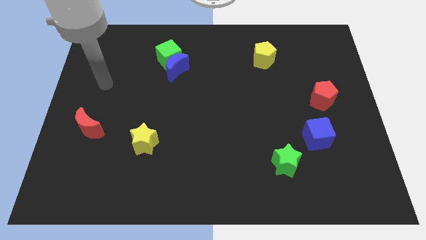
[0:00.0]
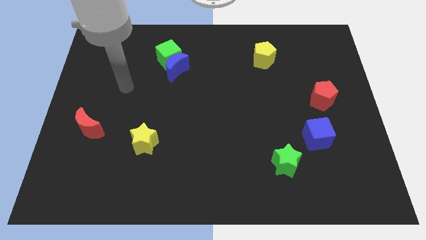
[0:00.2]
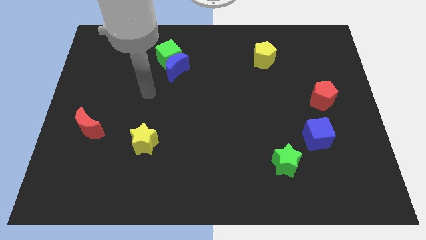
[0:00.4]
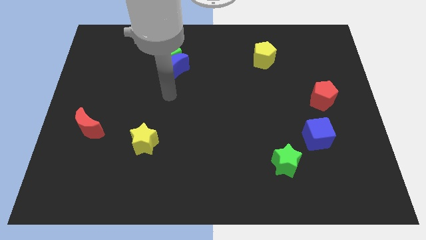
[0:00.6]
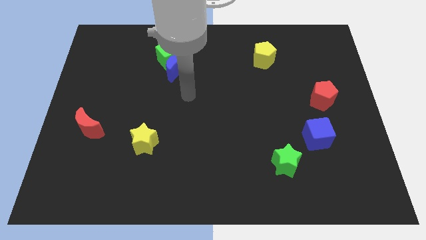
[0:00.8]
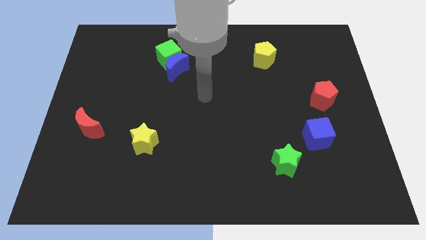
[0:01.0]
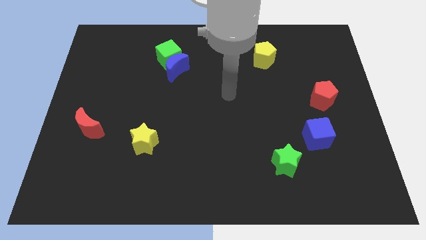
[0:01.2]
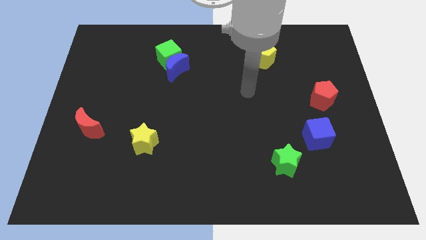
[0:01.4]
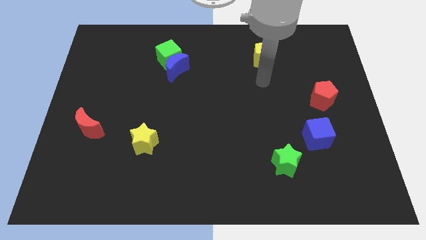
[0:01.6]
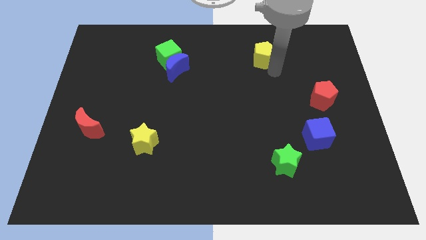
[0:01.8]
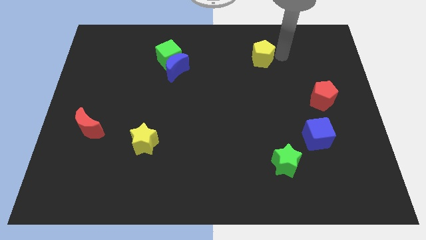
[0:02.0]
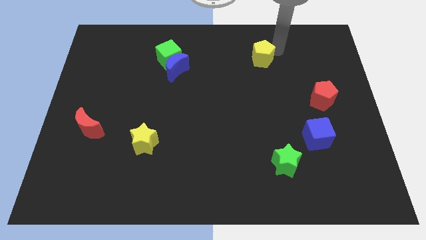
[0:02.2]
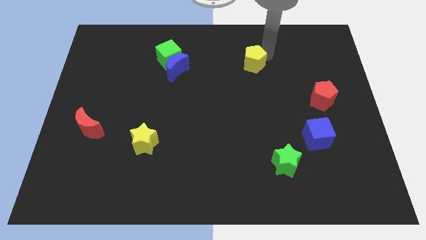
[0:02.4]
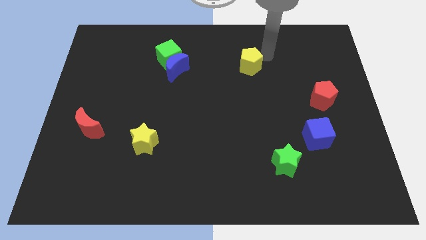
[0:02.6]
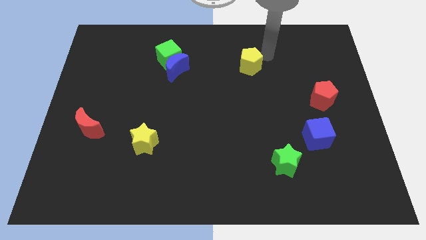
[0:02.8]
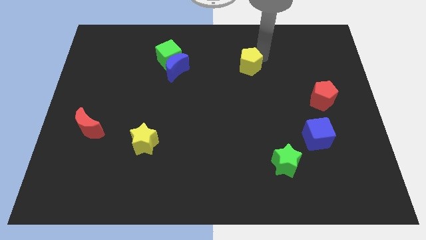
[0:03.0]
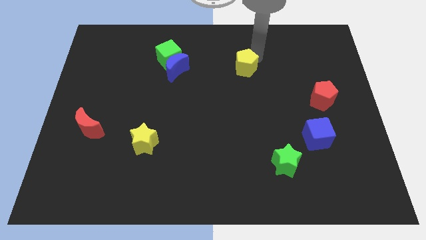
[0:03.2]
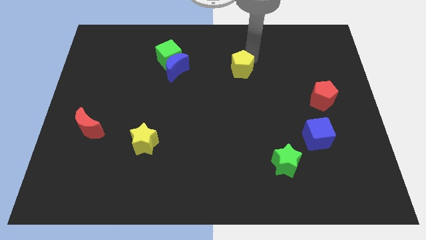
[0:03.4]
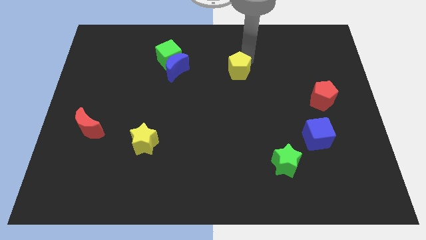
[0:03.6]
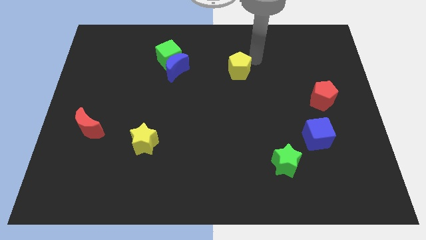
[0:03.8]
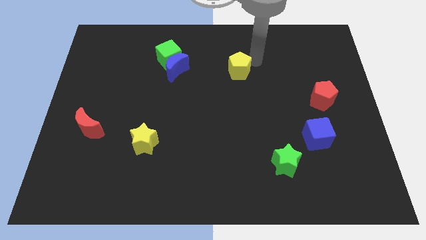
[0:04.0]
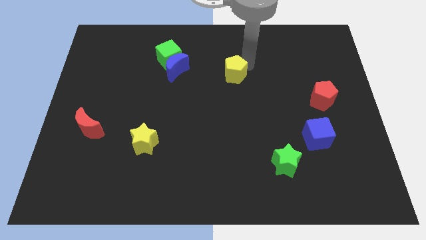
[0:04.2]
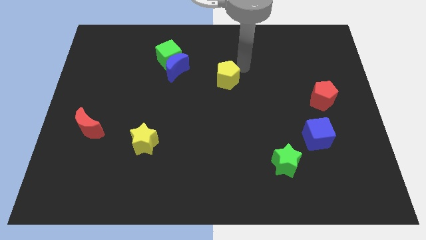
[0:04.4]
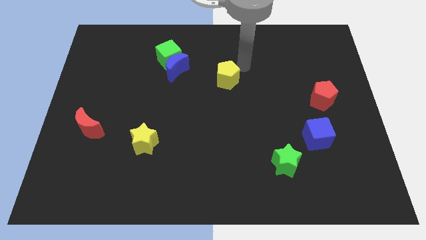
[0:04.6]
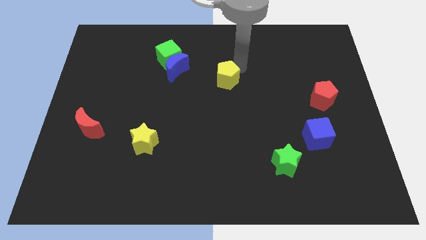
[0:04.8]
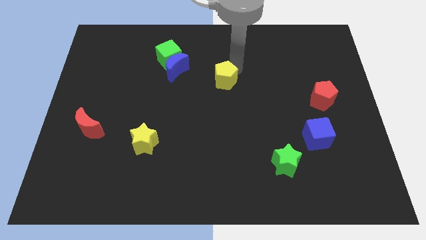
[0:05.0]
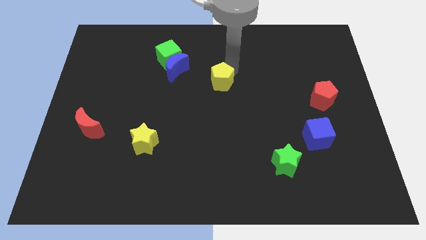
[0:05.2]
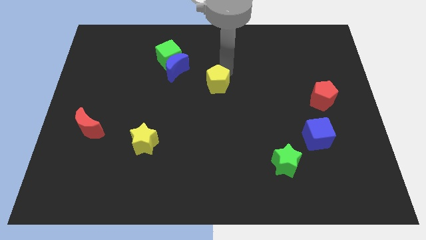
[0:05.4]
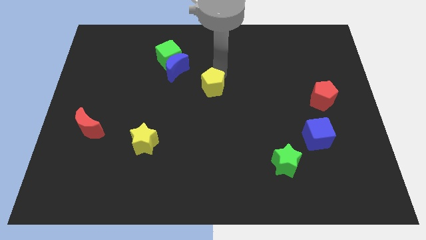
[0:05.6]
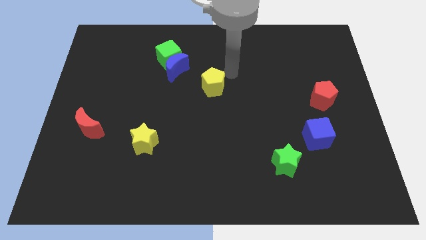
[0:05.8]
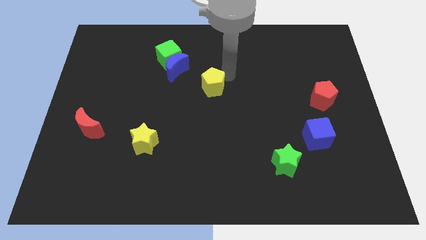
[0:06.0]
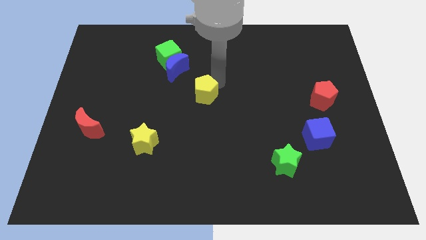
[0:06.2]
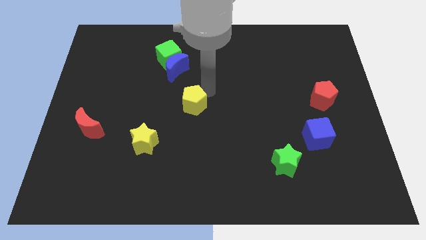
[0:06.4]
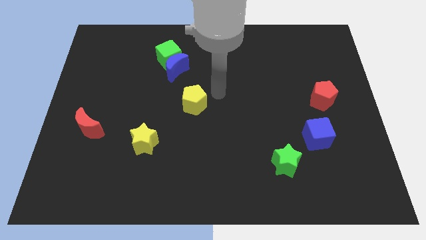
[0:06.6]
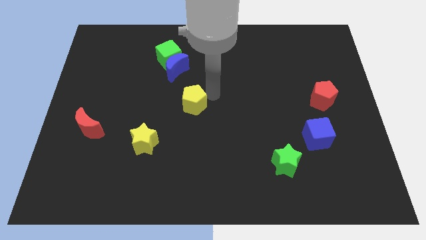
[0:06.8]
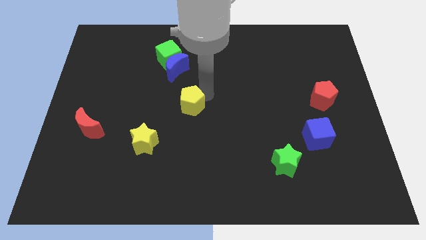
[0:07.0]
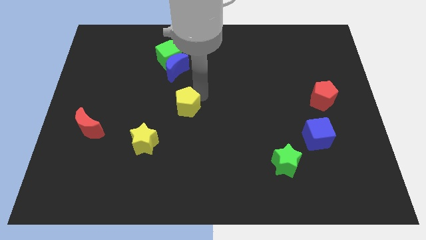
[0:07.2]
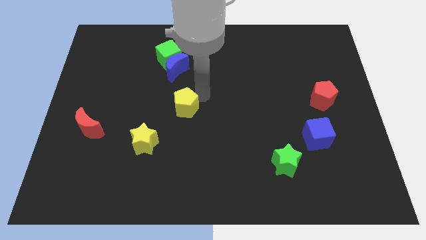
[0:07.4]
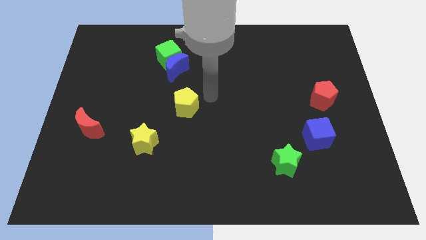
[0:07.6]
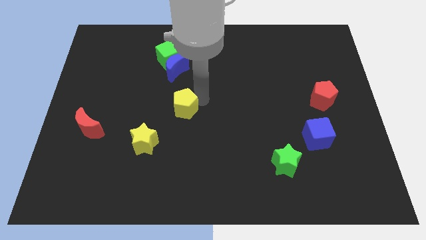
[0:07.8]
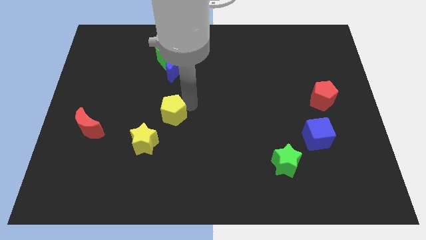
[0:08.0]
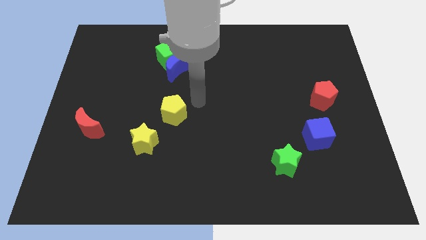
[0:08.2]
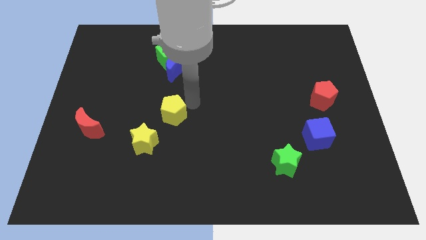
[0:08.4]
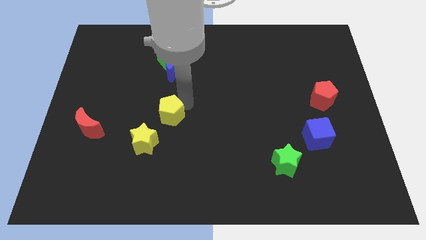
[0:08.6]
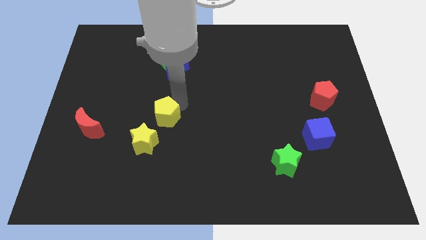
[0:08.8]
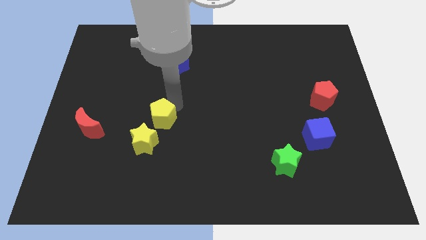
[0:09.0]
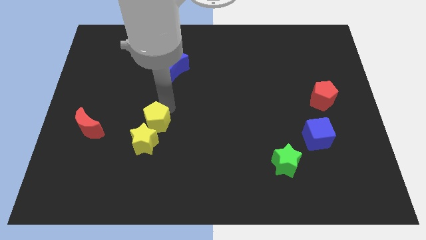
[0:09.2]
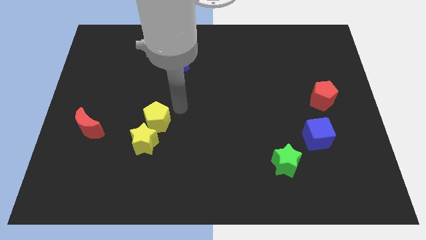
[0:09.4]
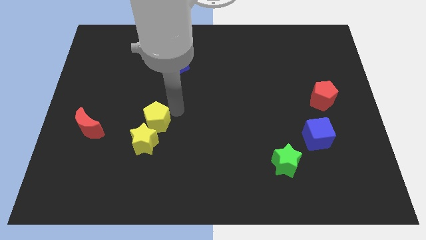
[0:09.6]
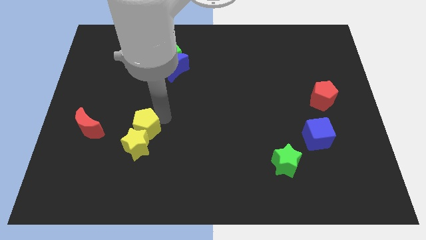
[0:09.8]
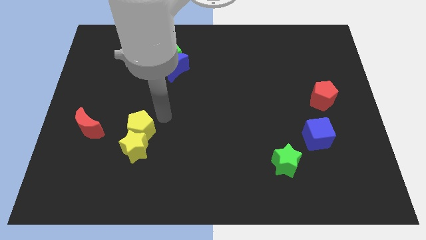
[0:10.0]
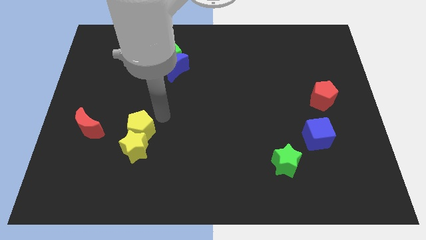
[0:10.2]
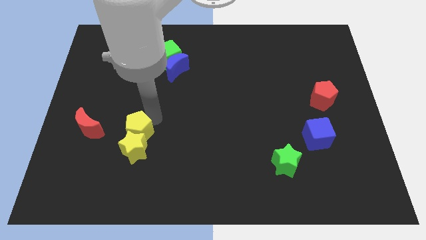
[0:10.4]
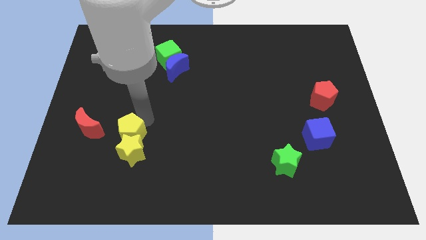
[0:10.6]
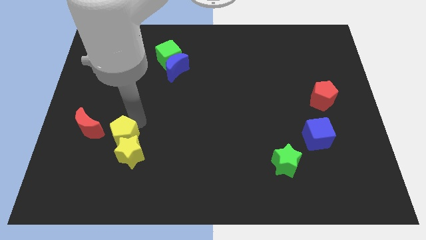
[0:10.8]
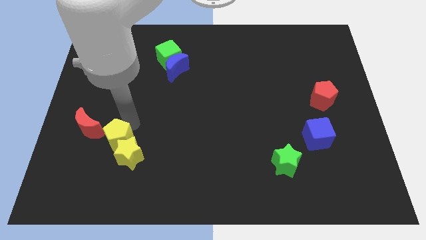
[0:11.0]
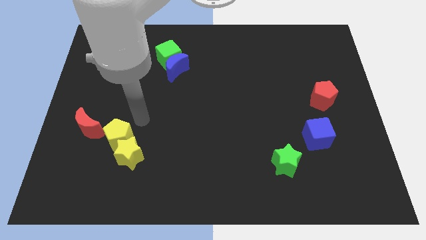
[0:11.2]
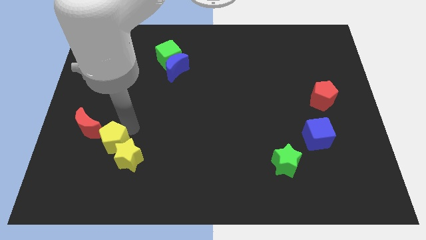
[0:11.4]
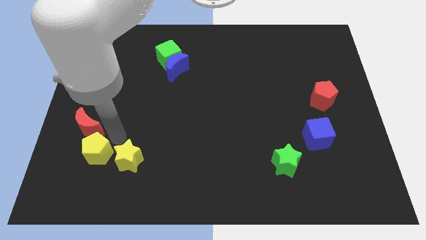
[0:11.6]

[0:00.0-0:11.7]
move the yellow pentagon to the bottom side of the red moon

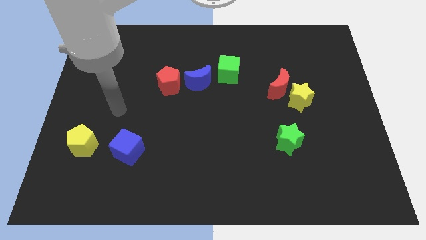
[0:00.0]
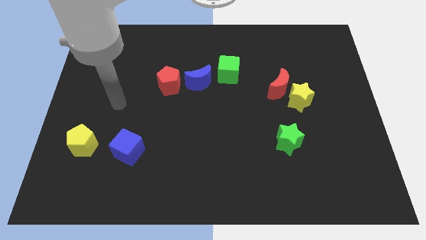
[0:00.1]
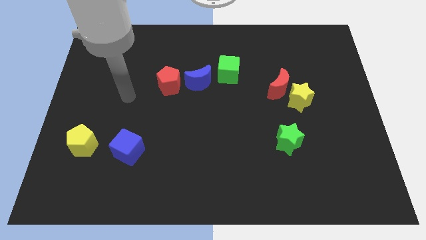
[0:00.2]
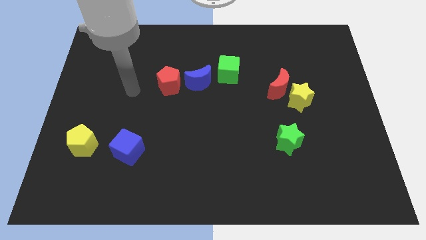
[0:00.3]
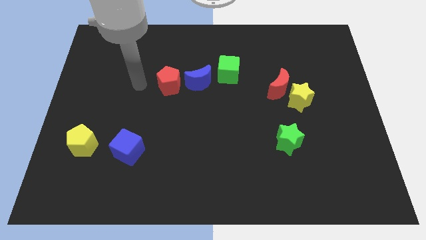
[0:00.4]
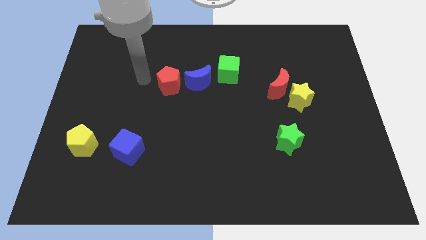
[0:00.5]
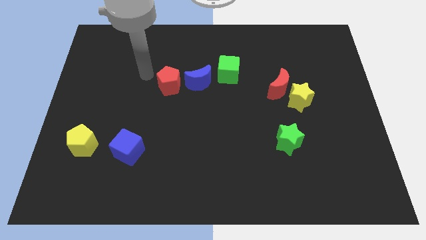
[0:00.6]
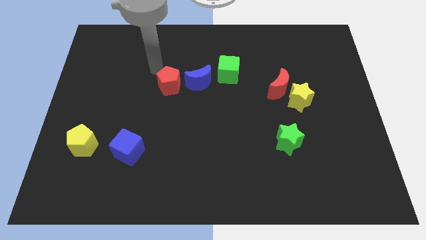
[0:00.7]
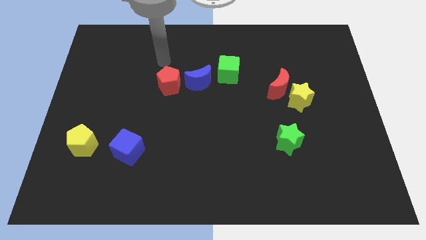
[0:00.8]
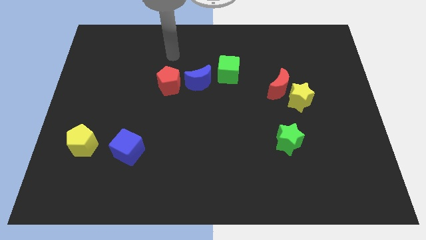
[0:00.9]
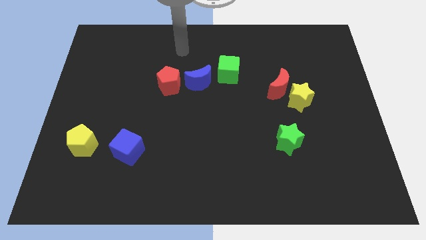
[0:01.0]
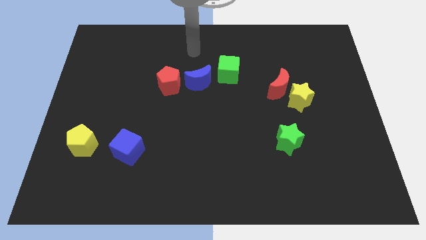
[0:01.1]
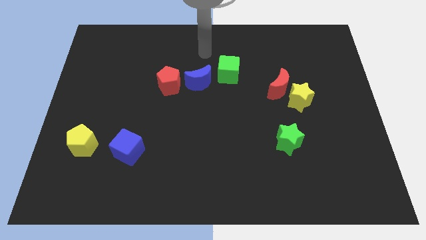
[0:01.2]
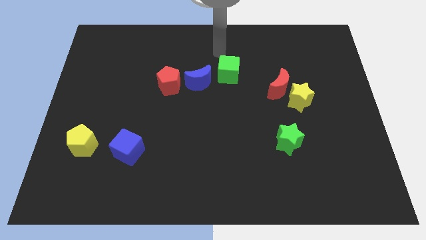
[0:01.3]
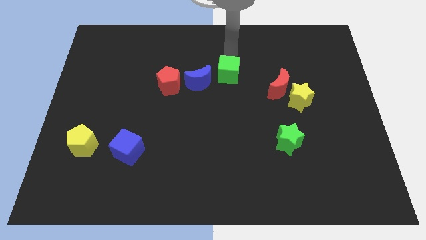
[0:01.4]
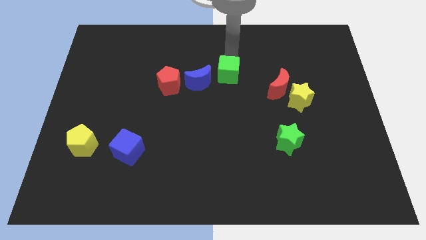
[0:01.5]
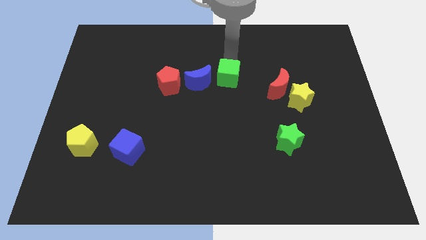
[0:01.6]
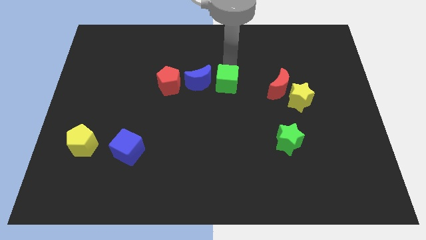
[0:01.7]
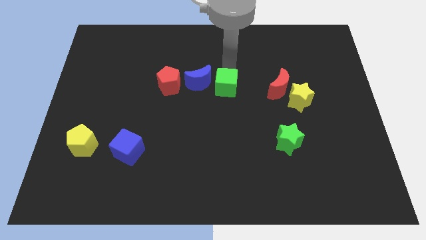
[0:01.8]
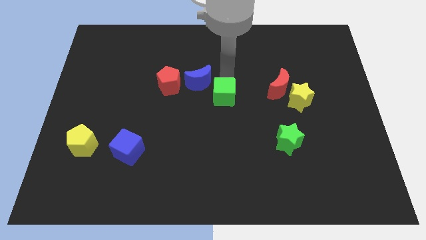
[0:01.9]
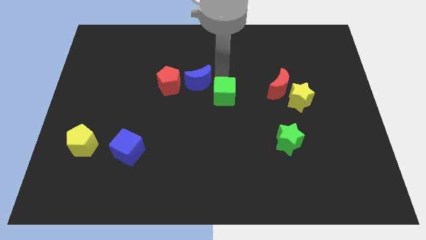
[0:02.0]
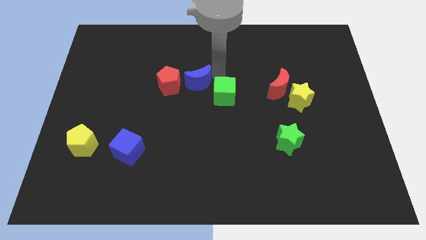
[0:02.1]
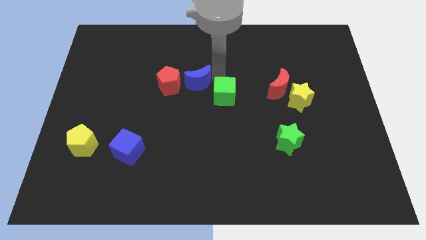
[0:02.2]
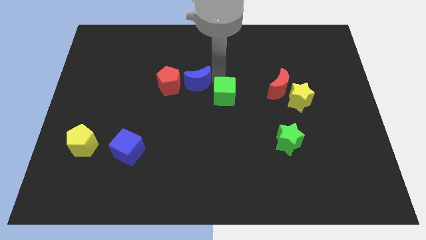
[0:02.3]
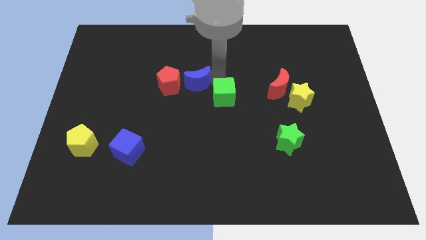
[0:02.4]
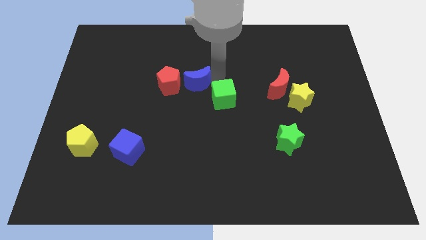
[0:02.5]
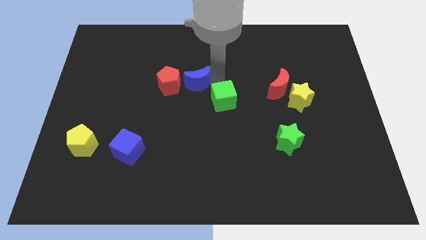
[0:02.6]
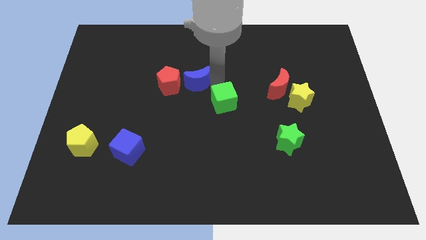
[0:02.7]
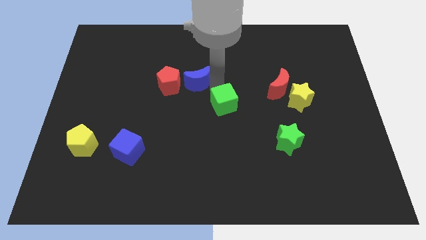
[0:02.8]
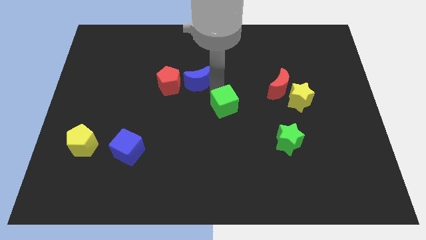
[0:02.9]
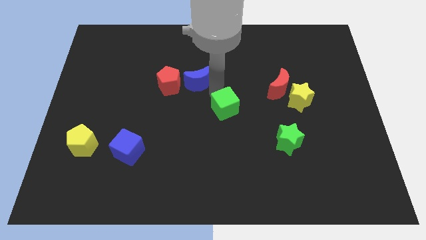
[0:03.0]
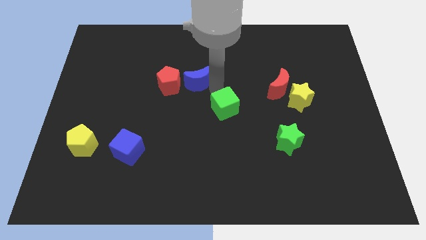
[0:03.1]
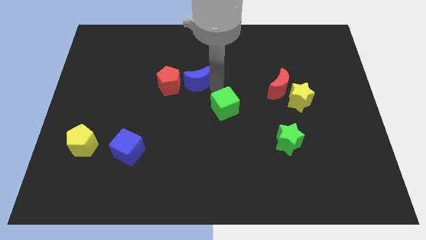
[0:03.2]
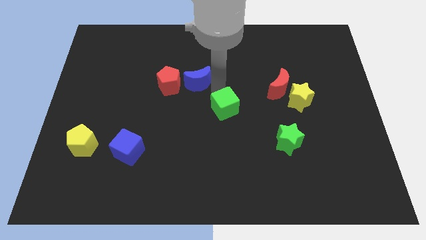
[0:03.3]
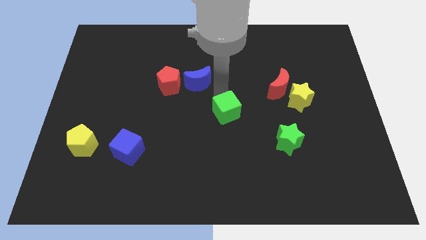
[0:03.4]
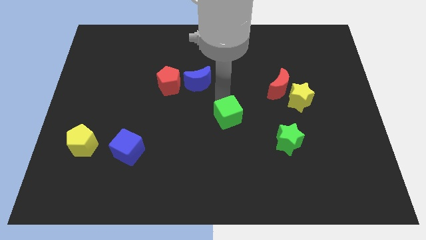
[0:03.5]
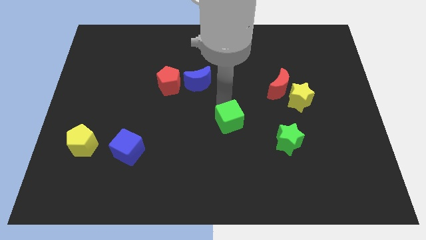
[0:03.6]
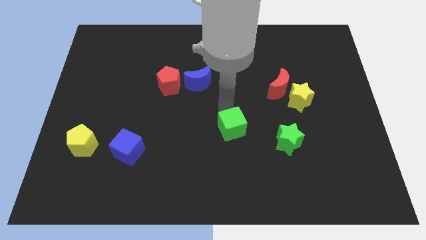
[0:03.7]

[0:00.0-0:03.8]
move the green cube to the left of the green star
